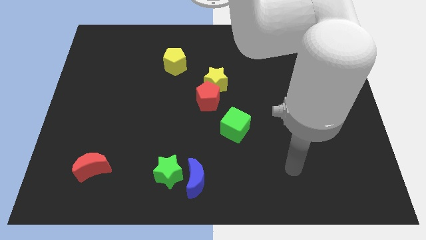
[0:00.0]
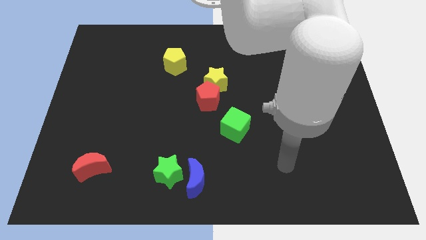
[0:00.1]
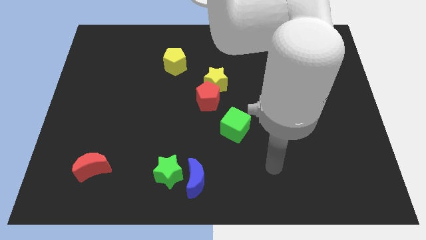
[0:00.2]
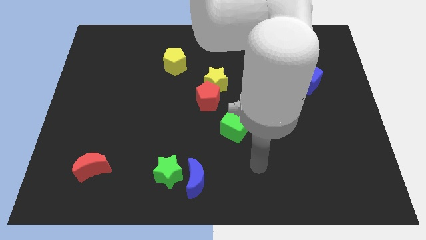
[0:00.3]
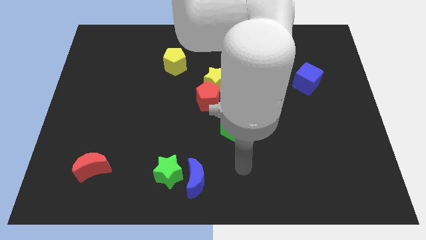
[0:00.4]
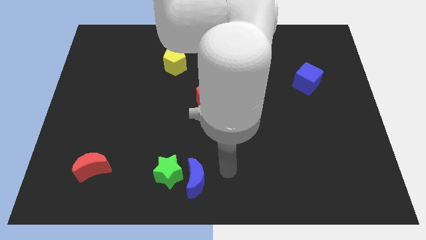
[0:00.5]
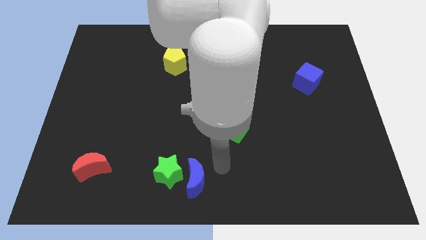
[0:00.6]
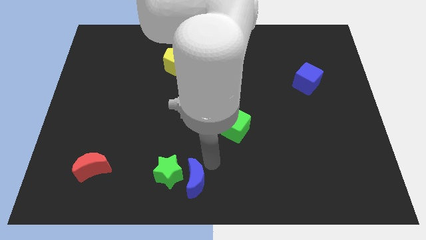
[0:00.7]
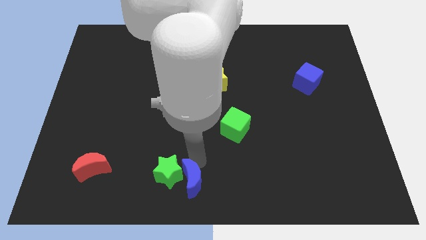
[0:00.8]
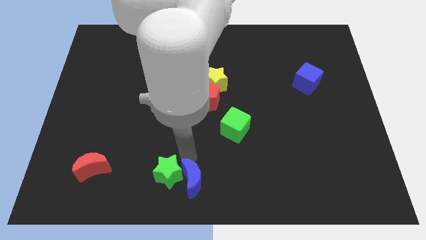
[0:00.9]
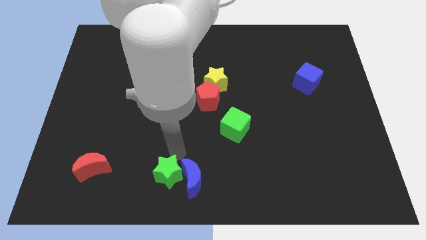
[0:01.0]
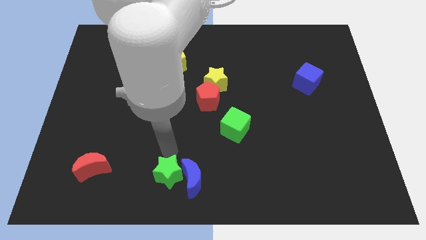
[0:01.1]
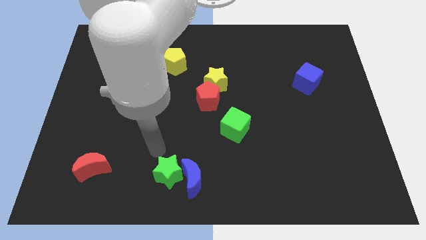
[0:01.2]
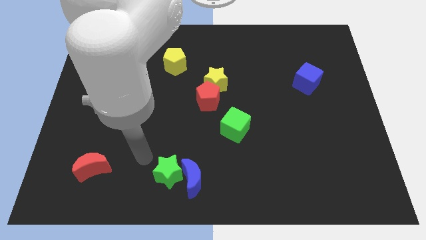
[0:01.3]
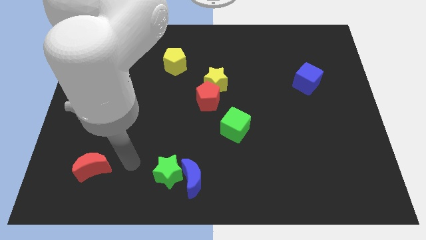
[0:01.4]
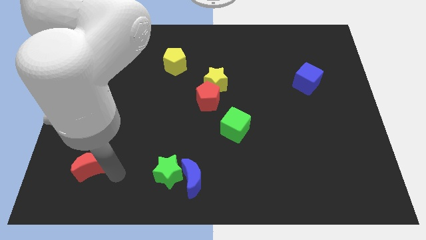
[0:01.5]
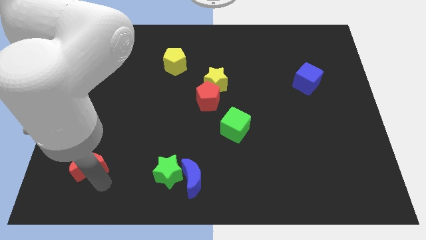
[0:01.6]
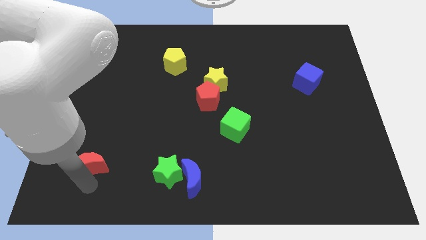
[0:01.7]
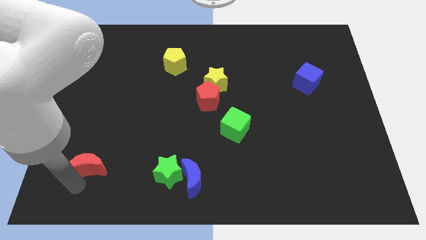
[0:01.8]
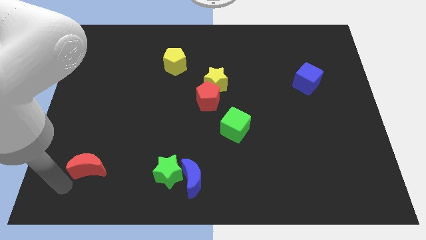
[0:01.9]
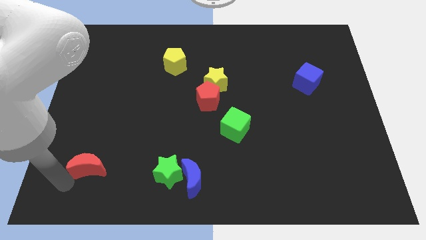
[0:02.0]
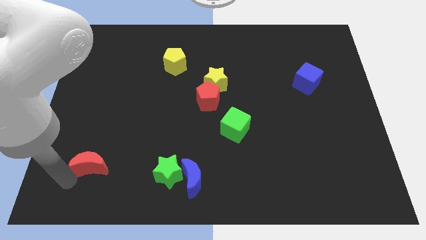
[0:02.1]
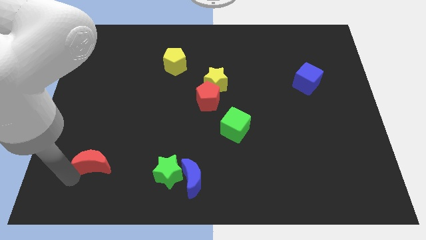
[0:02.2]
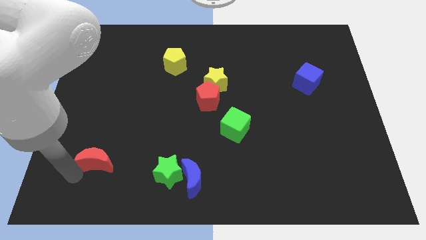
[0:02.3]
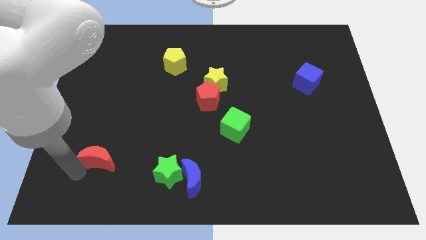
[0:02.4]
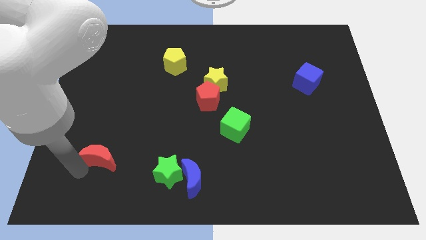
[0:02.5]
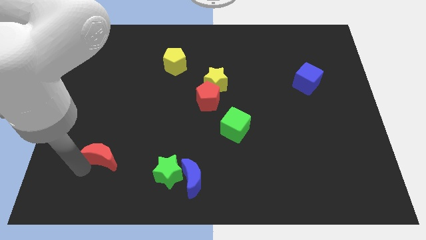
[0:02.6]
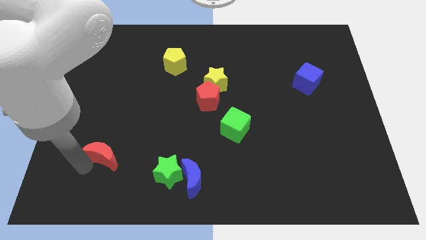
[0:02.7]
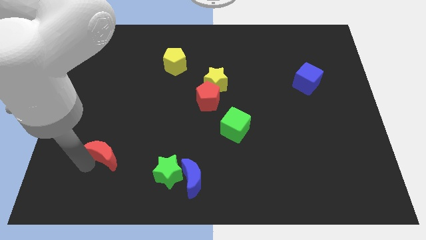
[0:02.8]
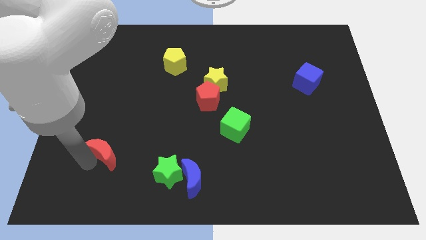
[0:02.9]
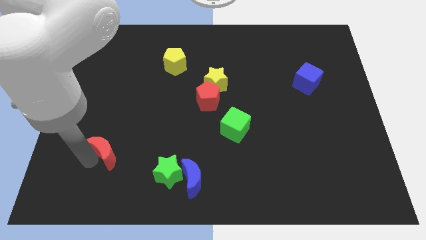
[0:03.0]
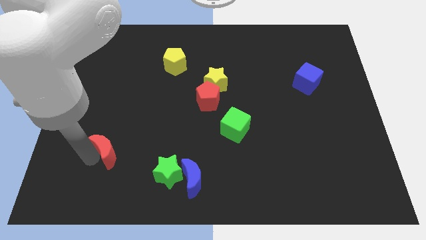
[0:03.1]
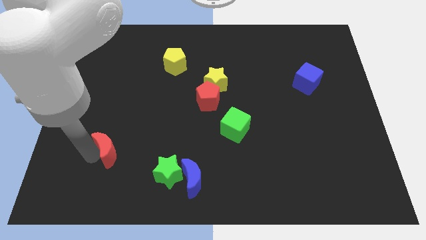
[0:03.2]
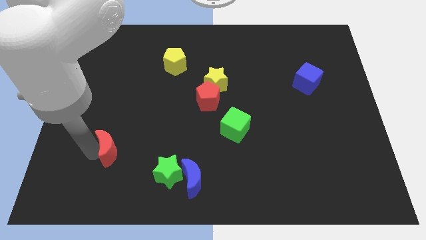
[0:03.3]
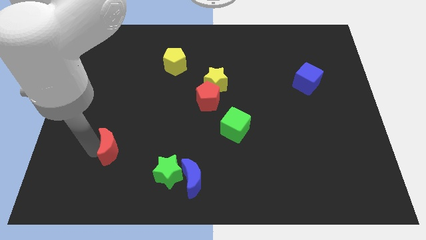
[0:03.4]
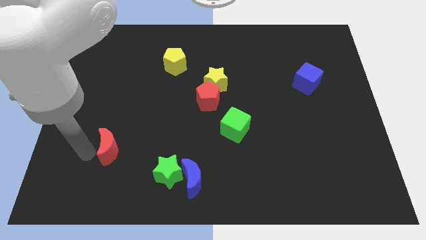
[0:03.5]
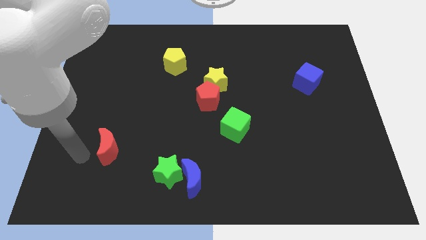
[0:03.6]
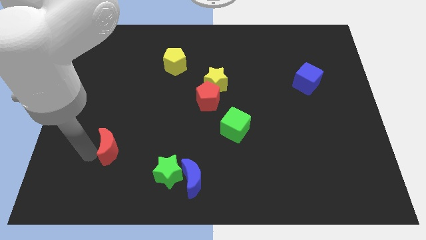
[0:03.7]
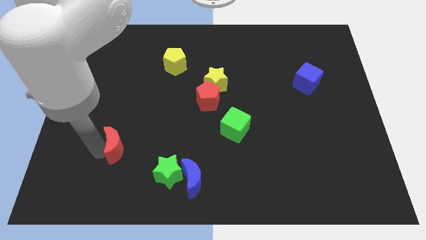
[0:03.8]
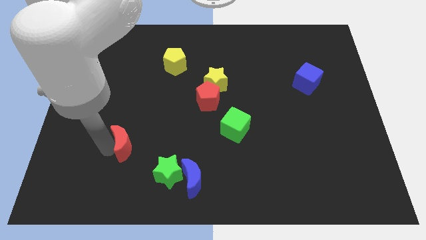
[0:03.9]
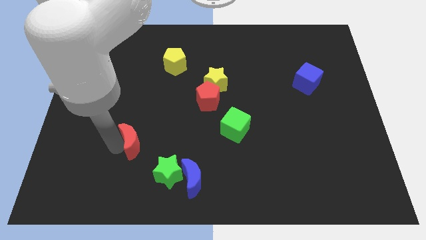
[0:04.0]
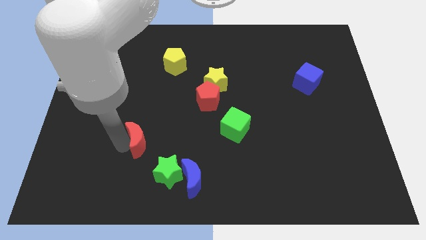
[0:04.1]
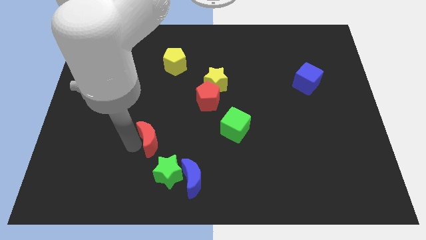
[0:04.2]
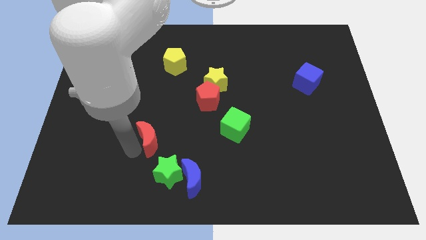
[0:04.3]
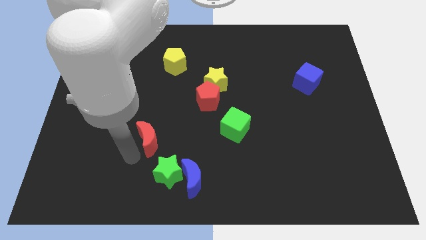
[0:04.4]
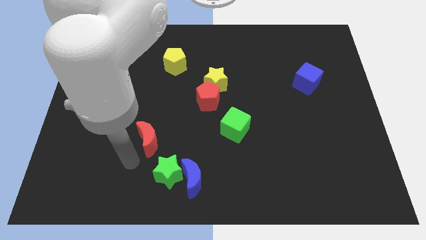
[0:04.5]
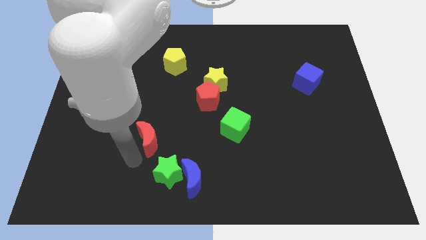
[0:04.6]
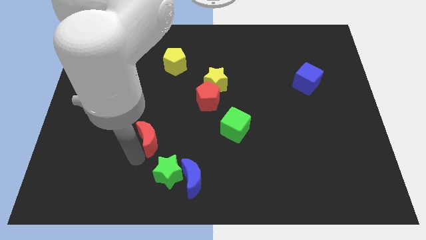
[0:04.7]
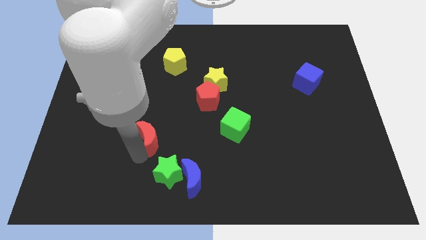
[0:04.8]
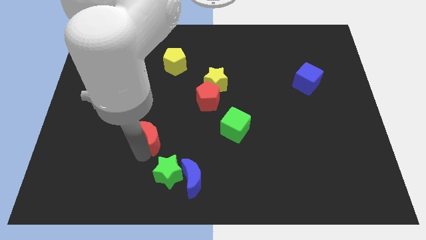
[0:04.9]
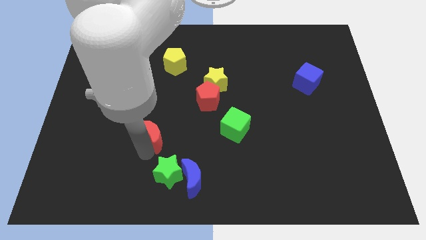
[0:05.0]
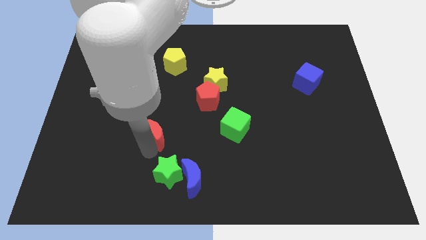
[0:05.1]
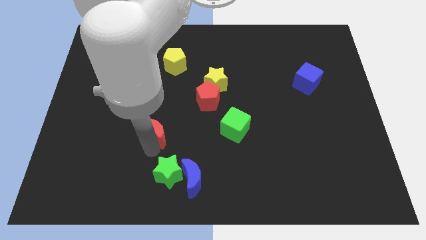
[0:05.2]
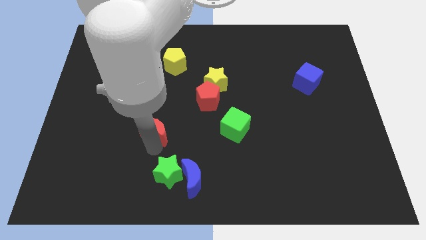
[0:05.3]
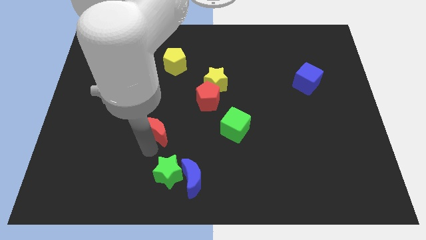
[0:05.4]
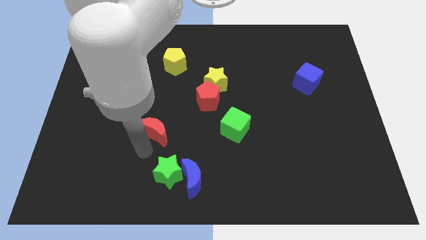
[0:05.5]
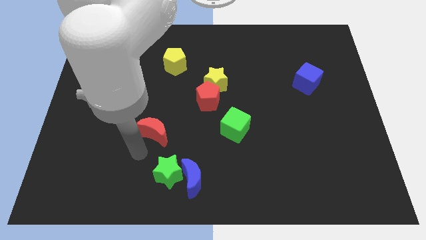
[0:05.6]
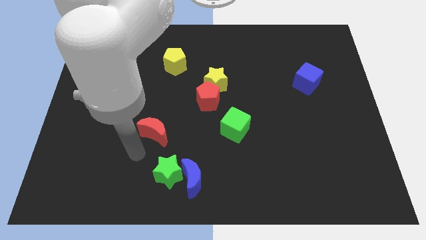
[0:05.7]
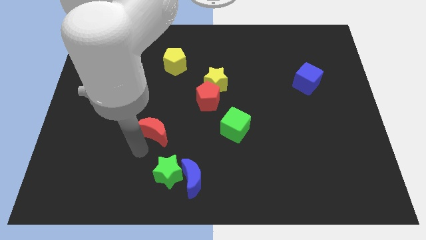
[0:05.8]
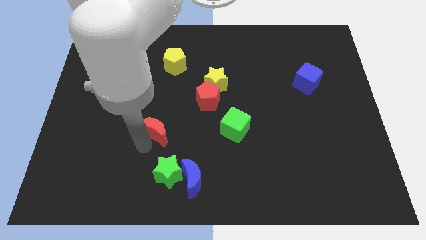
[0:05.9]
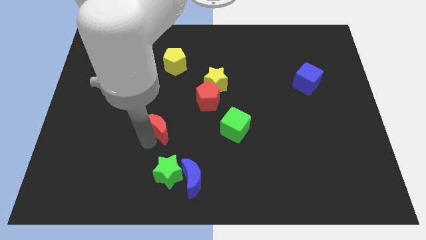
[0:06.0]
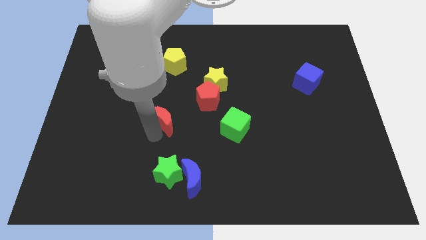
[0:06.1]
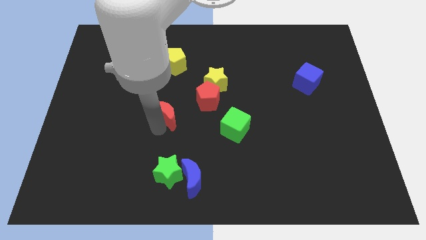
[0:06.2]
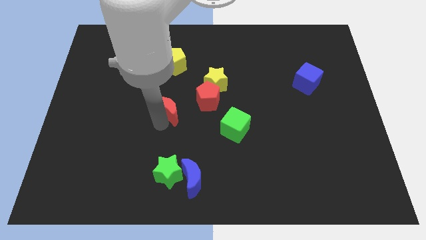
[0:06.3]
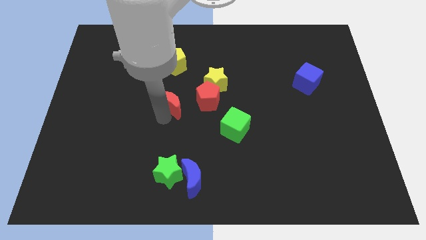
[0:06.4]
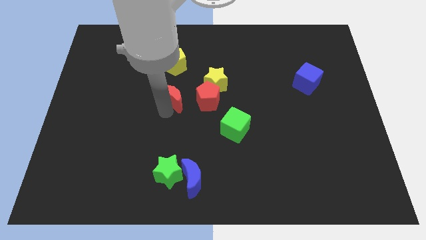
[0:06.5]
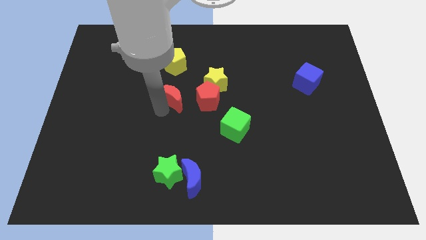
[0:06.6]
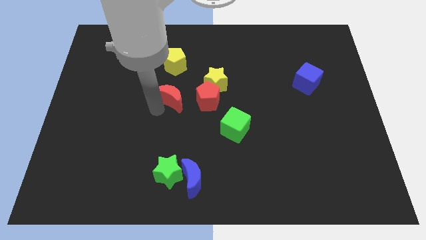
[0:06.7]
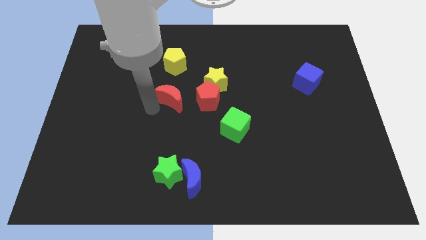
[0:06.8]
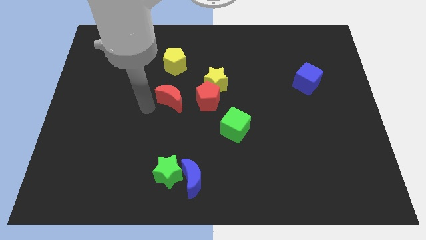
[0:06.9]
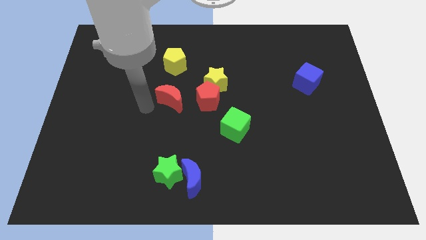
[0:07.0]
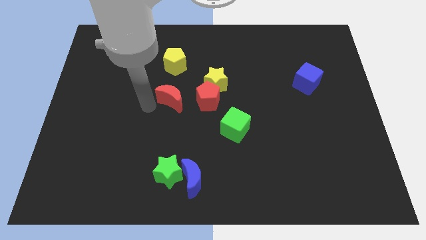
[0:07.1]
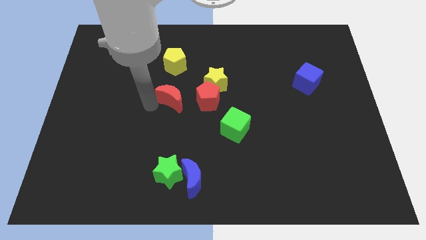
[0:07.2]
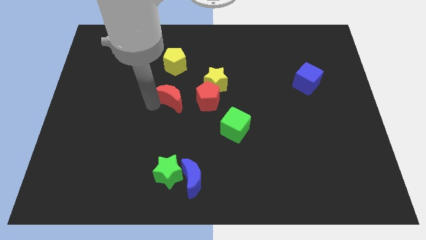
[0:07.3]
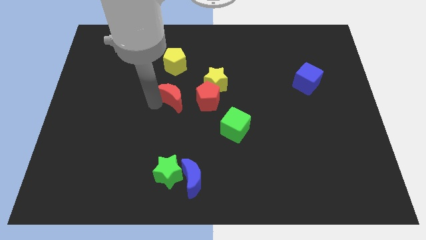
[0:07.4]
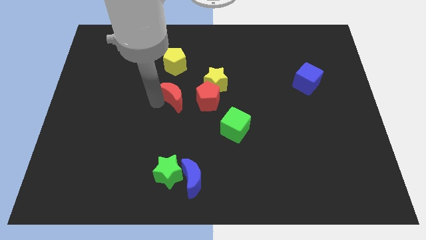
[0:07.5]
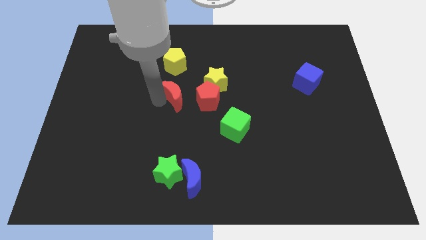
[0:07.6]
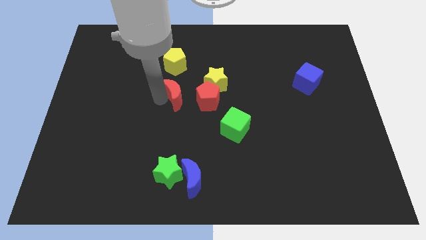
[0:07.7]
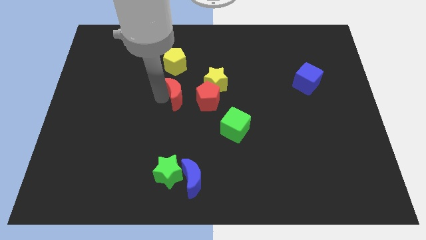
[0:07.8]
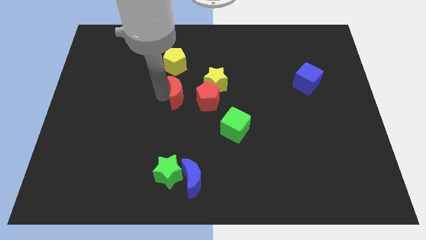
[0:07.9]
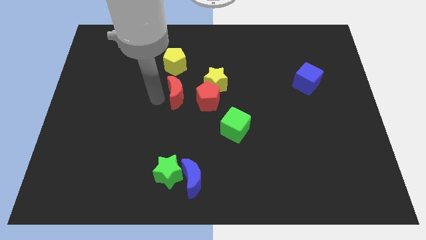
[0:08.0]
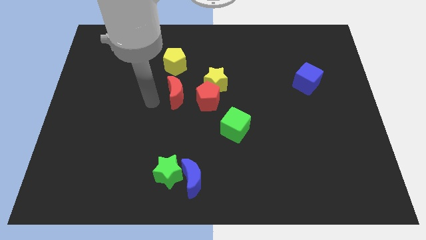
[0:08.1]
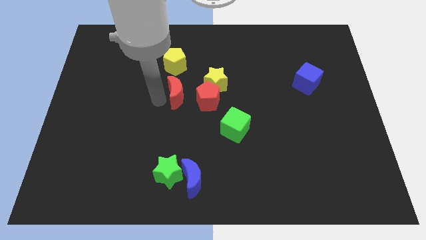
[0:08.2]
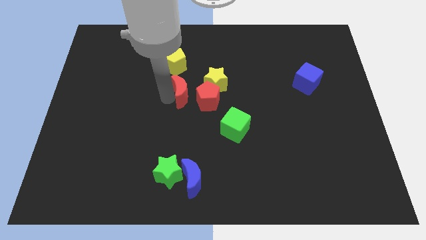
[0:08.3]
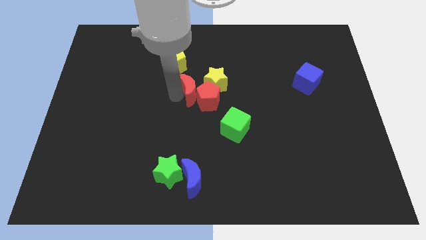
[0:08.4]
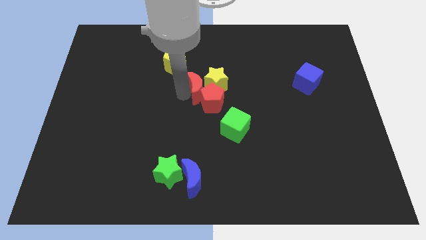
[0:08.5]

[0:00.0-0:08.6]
put the red moon towards the yellow star
